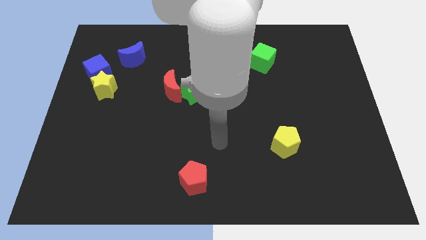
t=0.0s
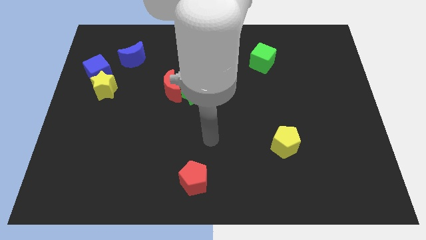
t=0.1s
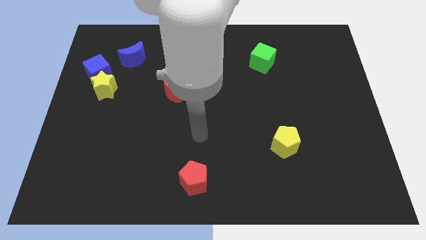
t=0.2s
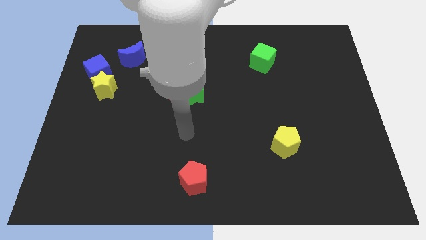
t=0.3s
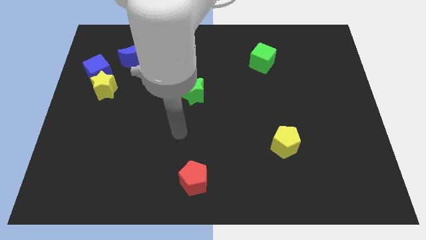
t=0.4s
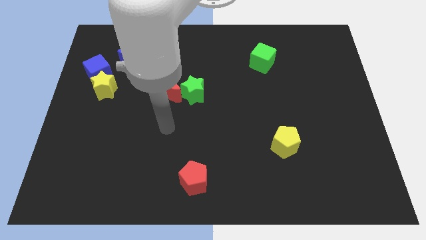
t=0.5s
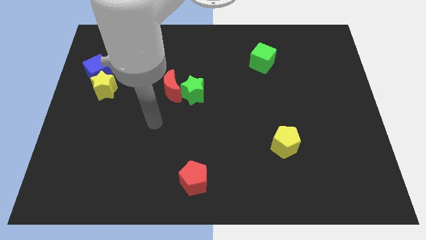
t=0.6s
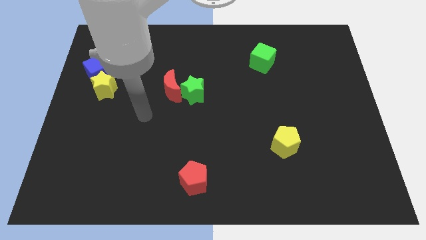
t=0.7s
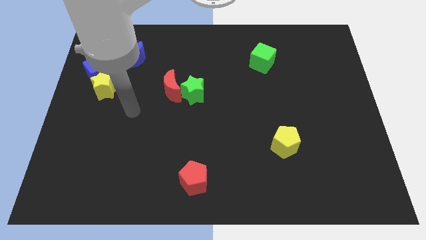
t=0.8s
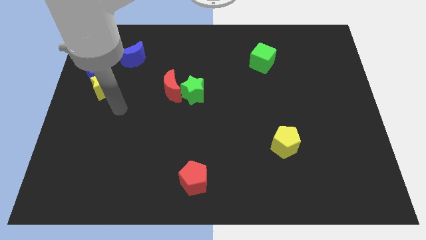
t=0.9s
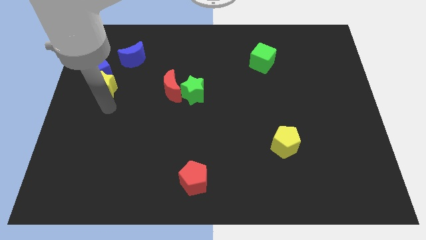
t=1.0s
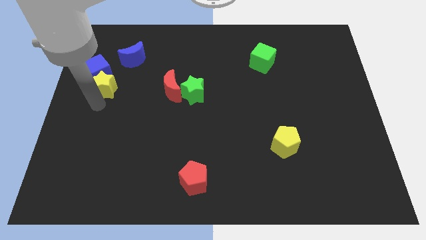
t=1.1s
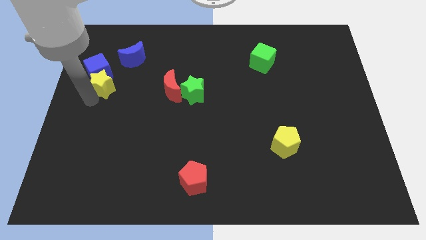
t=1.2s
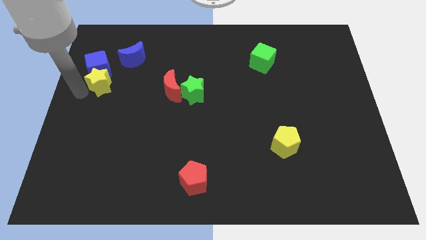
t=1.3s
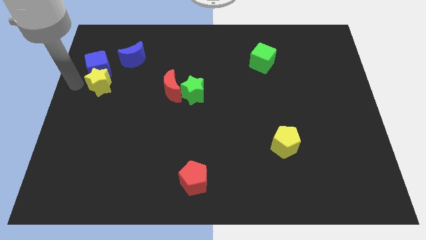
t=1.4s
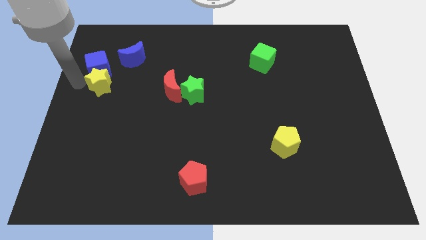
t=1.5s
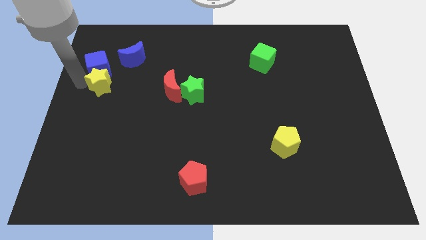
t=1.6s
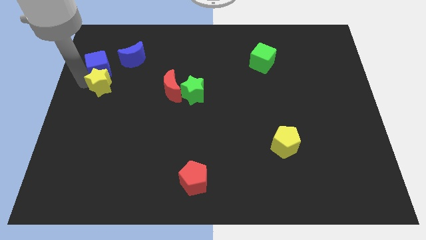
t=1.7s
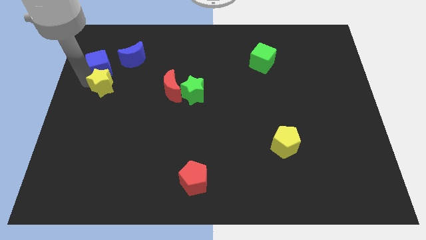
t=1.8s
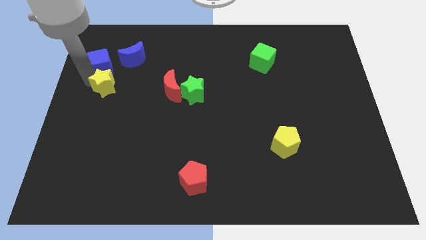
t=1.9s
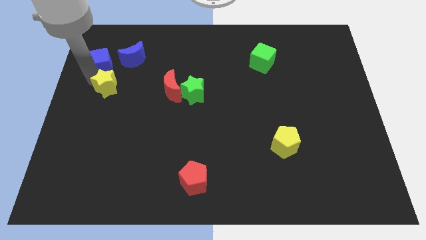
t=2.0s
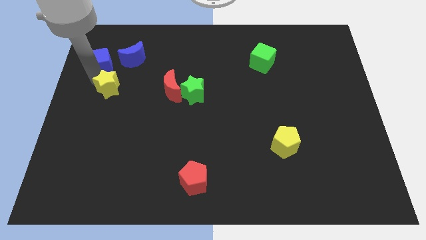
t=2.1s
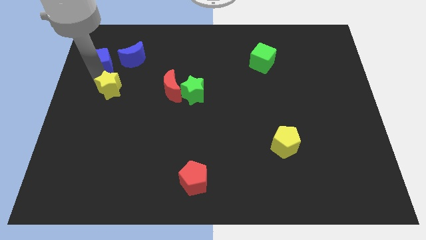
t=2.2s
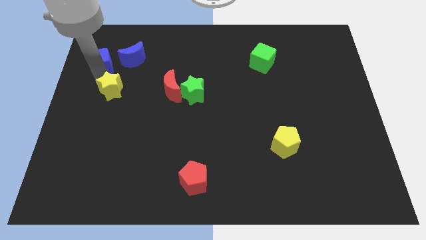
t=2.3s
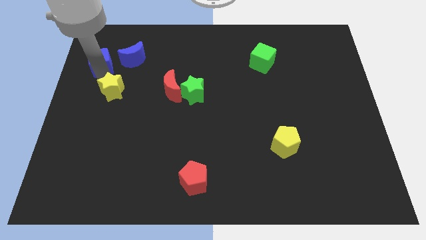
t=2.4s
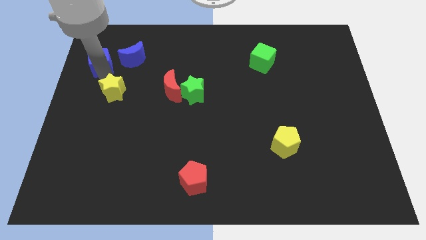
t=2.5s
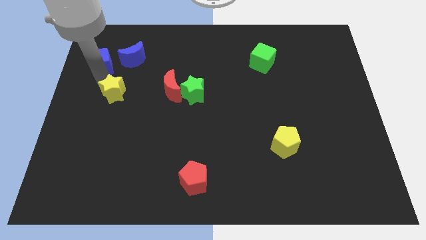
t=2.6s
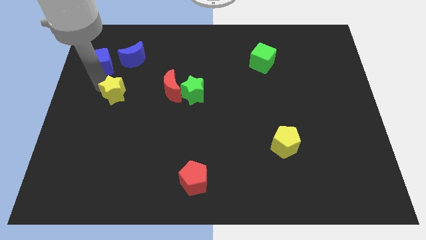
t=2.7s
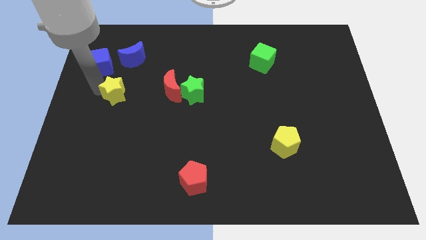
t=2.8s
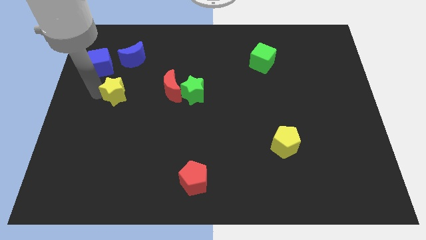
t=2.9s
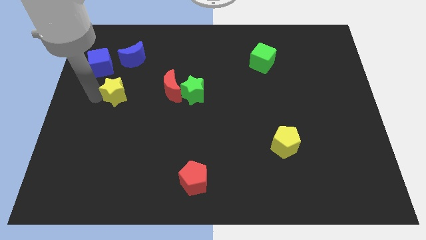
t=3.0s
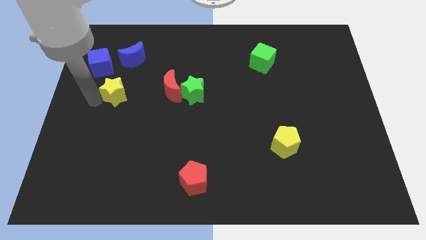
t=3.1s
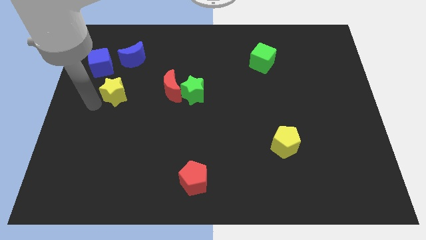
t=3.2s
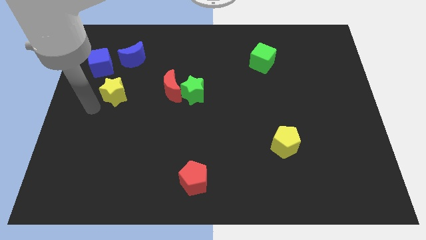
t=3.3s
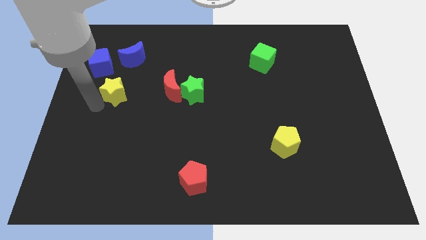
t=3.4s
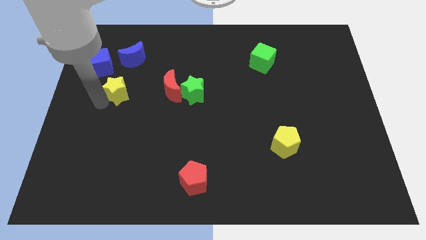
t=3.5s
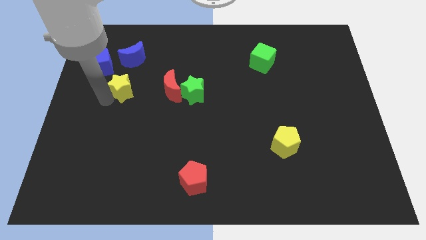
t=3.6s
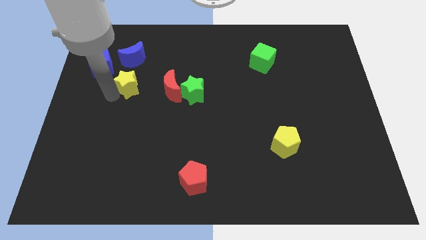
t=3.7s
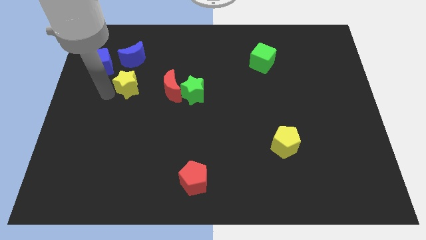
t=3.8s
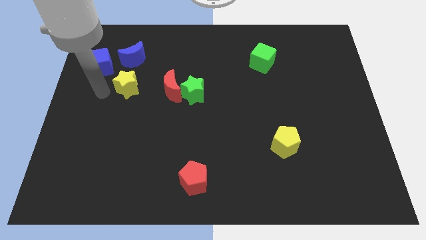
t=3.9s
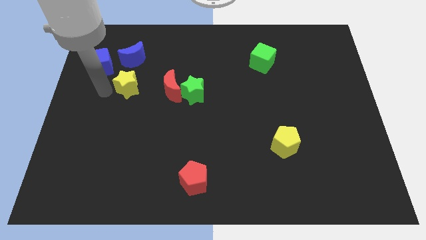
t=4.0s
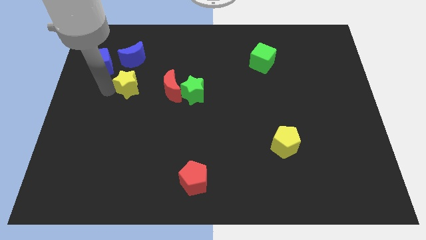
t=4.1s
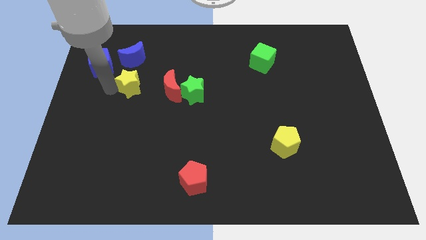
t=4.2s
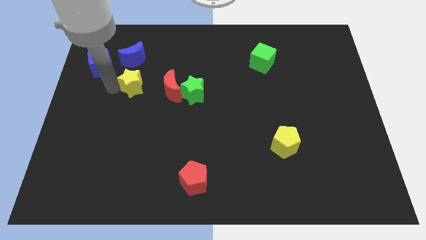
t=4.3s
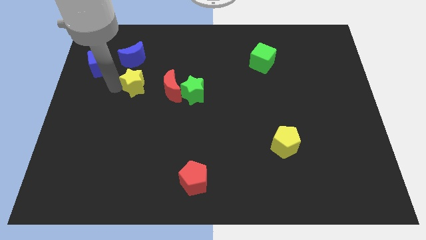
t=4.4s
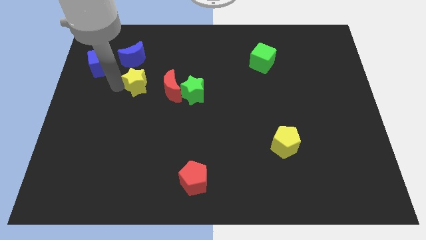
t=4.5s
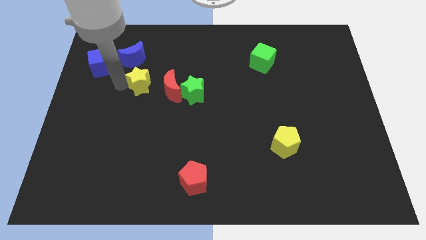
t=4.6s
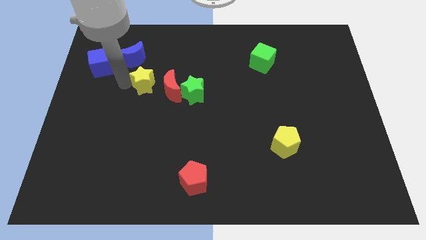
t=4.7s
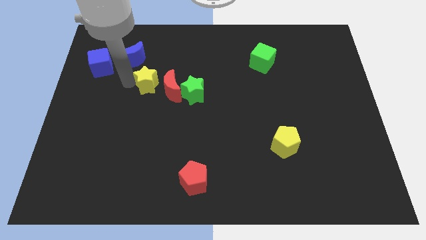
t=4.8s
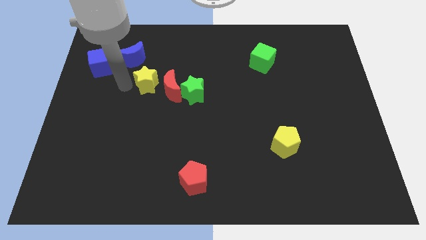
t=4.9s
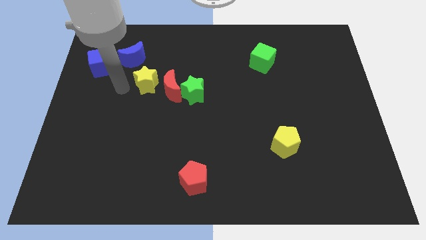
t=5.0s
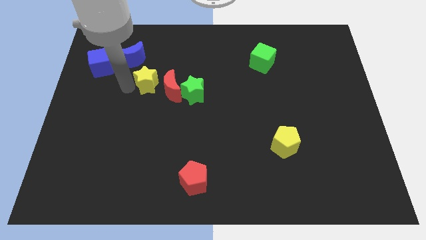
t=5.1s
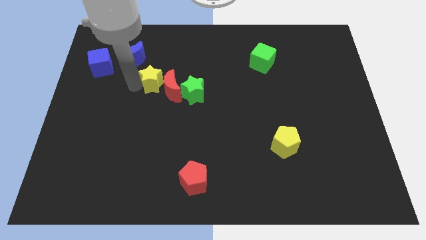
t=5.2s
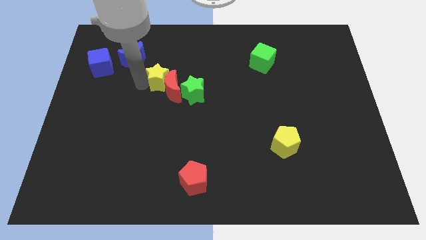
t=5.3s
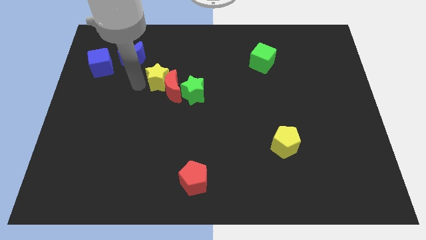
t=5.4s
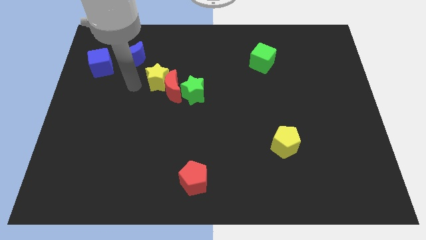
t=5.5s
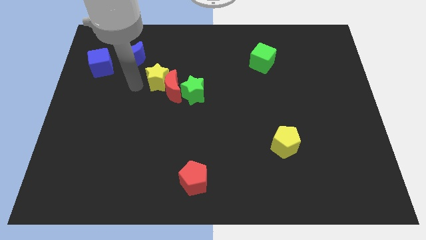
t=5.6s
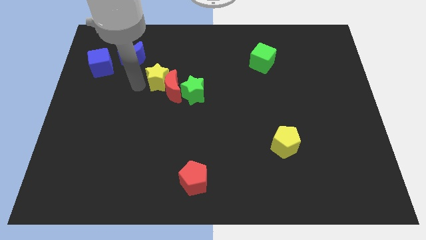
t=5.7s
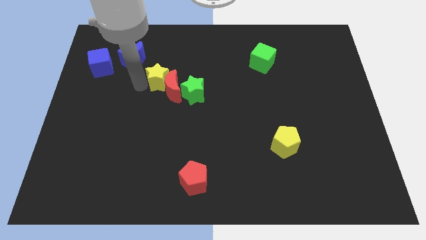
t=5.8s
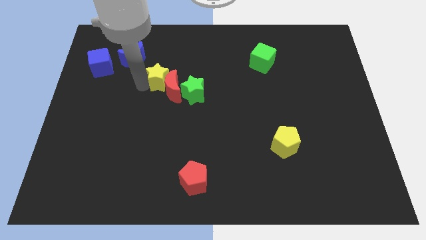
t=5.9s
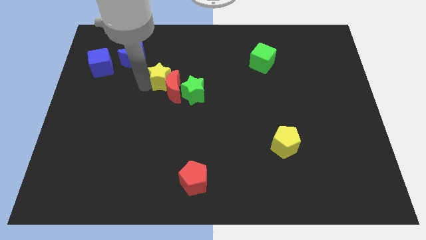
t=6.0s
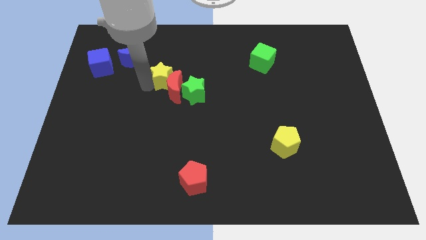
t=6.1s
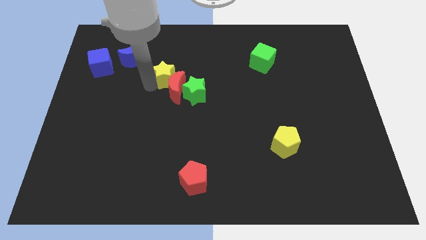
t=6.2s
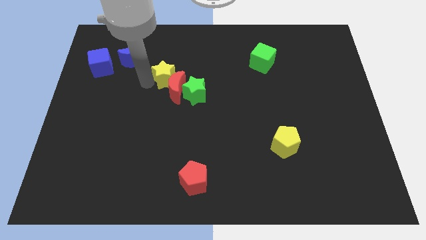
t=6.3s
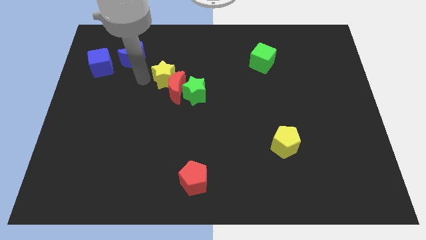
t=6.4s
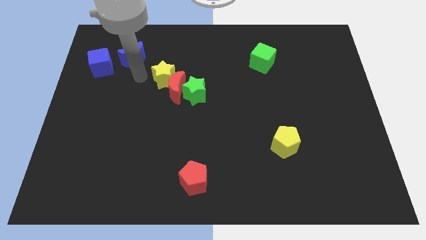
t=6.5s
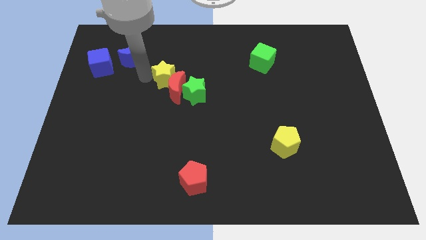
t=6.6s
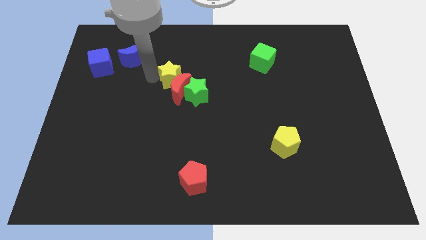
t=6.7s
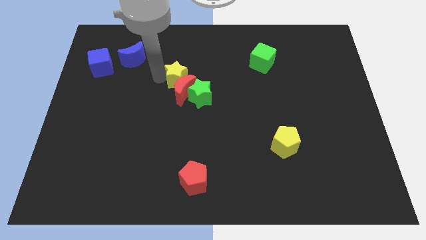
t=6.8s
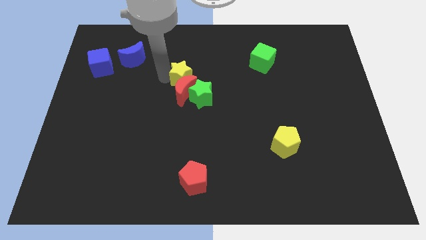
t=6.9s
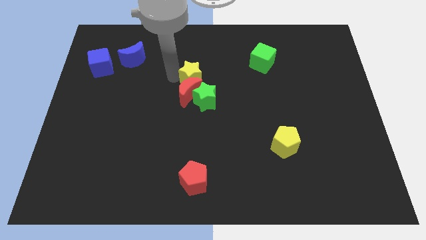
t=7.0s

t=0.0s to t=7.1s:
move the yellow star right

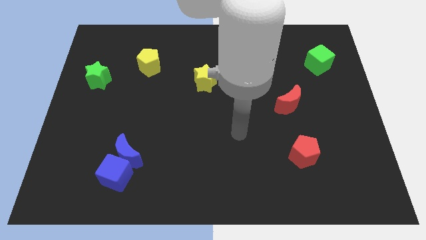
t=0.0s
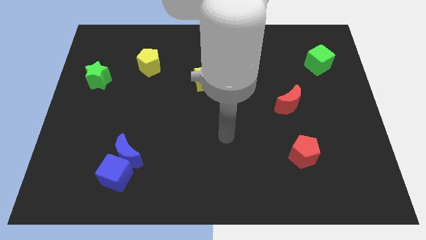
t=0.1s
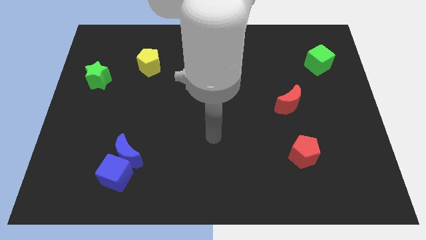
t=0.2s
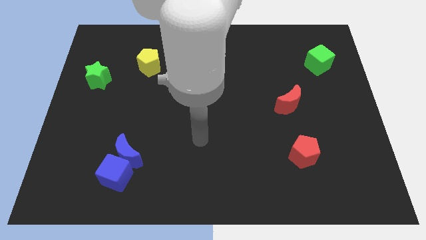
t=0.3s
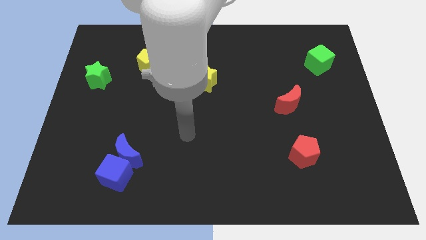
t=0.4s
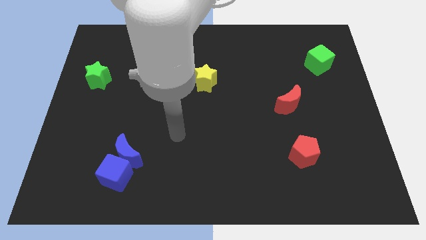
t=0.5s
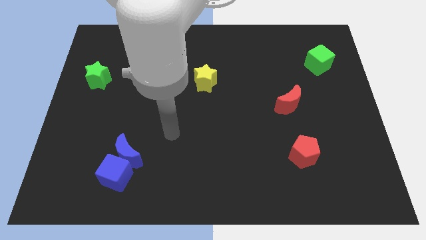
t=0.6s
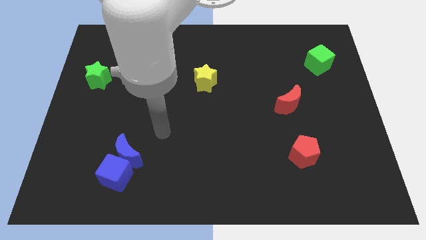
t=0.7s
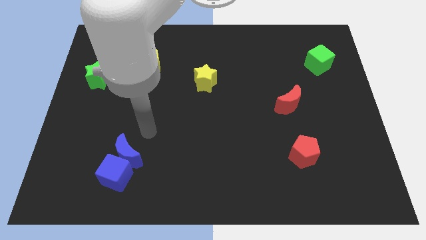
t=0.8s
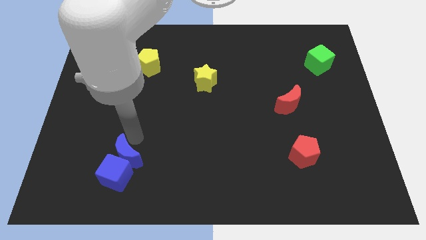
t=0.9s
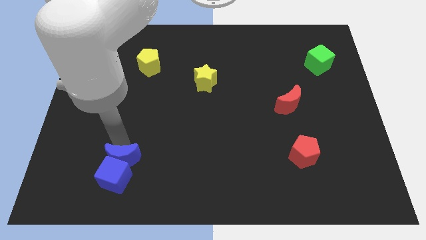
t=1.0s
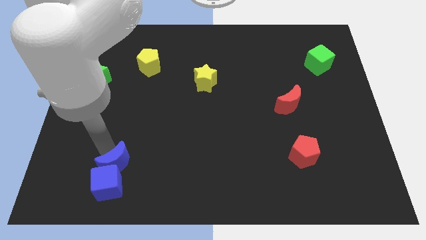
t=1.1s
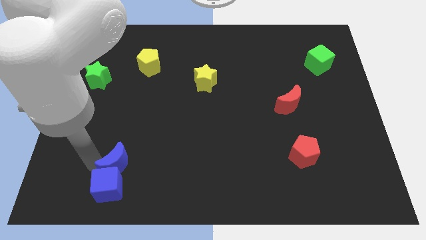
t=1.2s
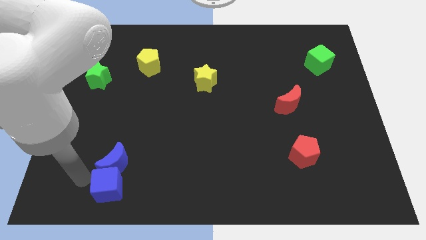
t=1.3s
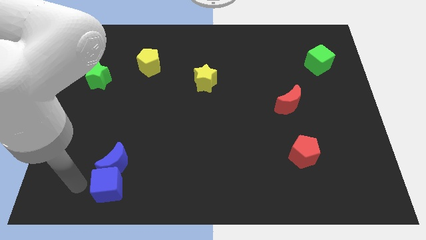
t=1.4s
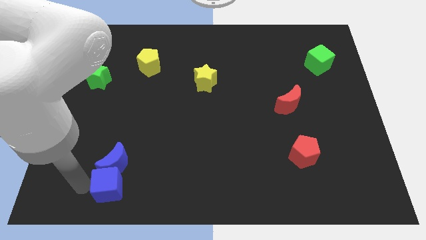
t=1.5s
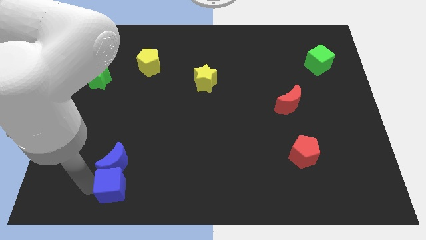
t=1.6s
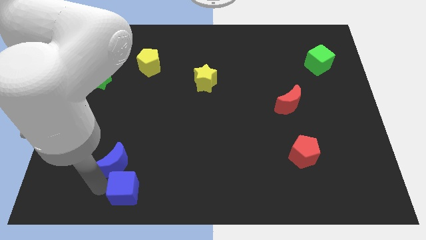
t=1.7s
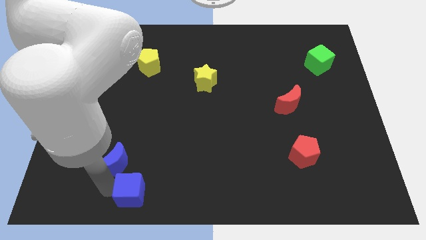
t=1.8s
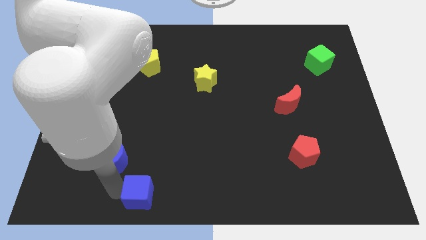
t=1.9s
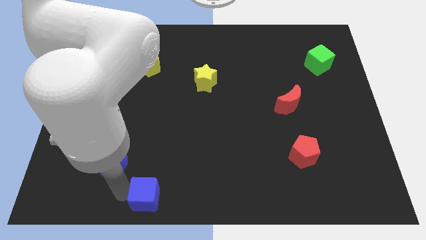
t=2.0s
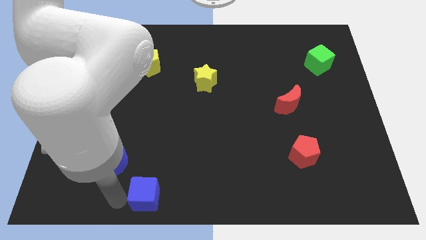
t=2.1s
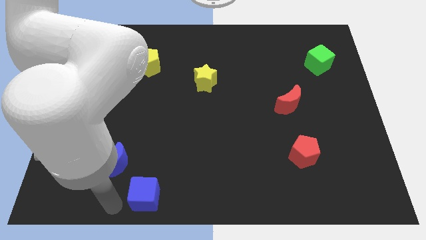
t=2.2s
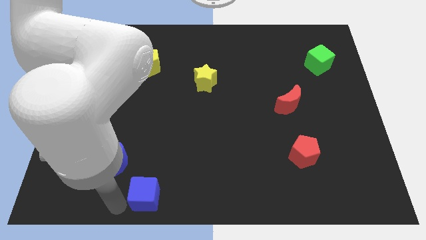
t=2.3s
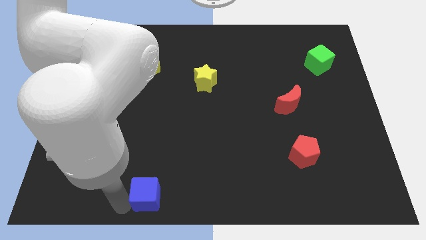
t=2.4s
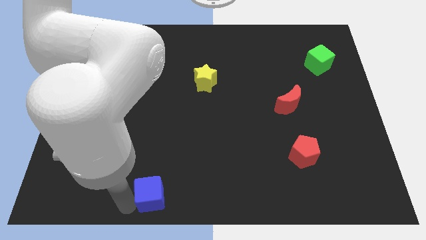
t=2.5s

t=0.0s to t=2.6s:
push the blue cube to the right slightly
